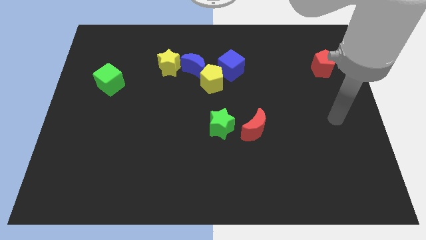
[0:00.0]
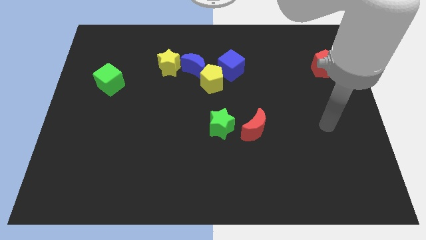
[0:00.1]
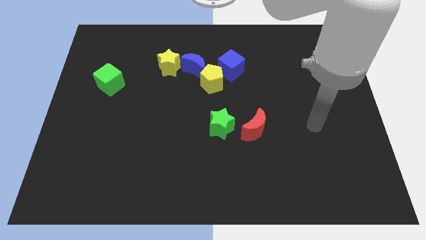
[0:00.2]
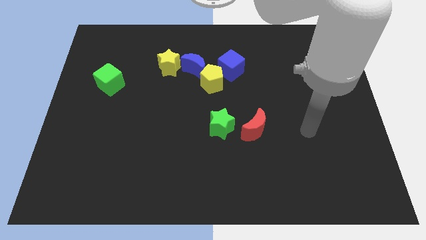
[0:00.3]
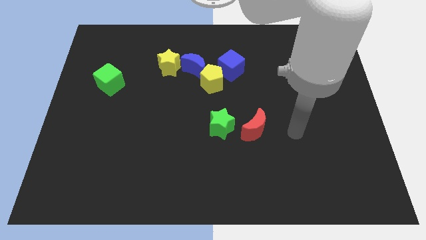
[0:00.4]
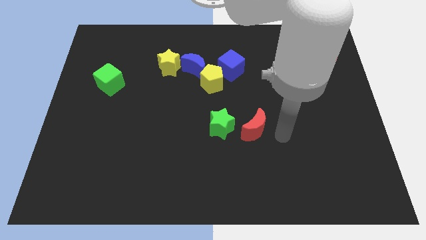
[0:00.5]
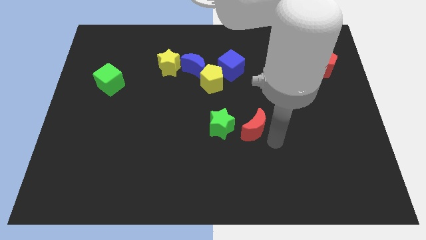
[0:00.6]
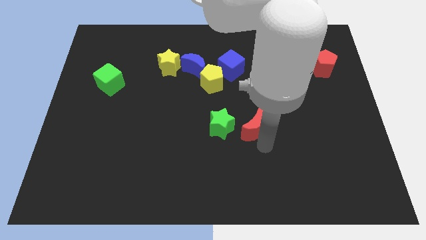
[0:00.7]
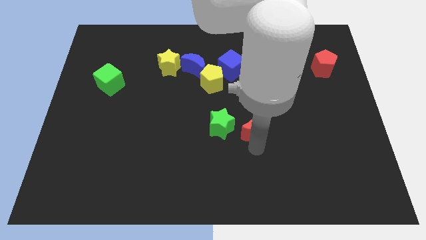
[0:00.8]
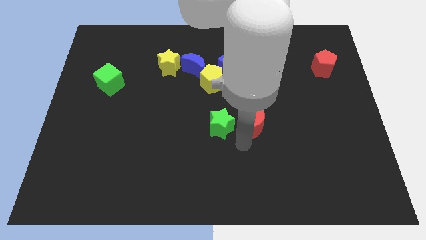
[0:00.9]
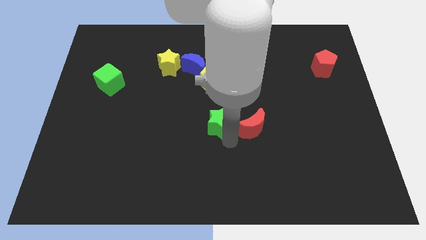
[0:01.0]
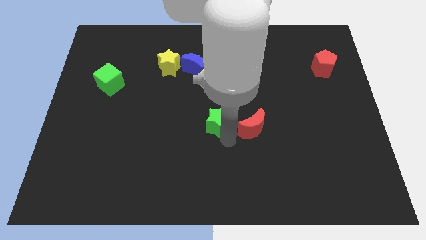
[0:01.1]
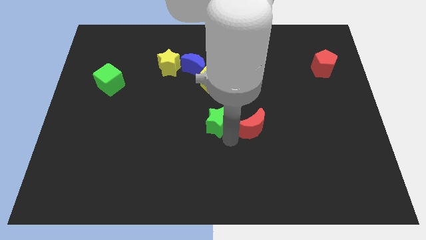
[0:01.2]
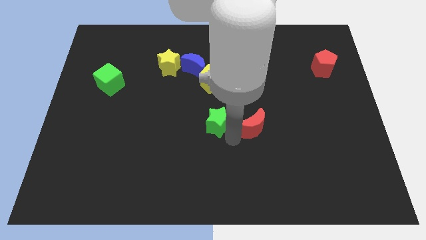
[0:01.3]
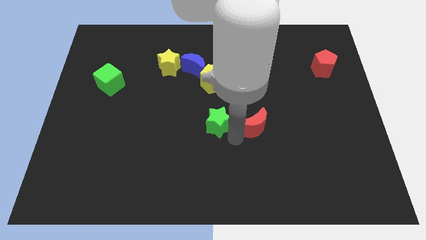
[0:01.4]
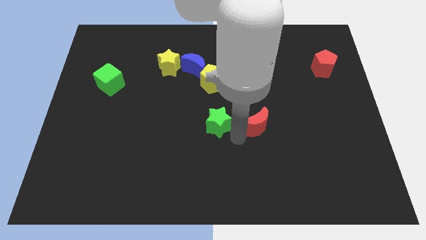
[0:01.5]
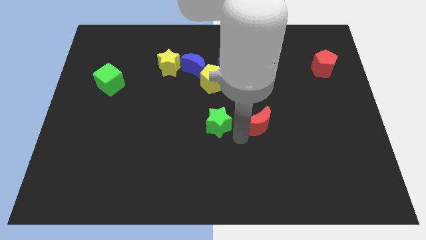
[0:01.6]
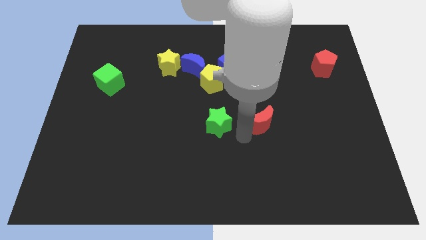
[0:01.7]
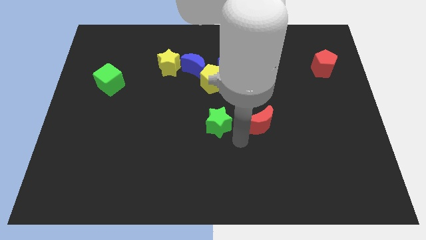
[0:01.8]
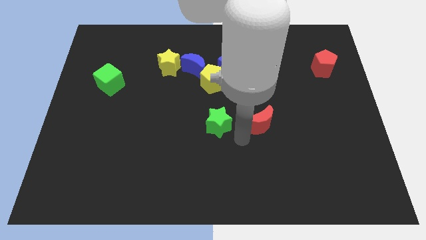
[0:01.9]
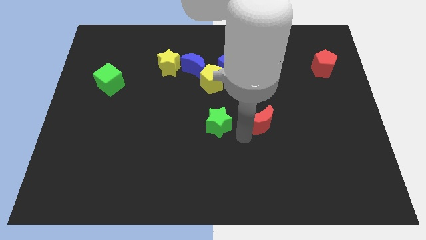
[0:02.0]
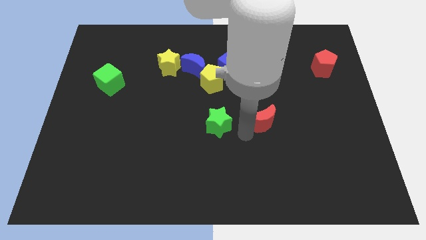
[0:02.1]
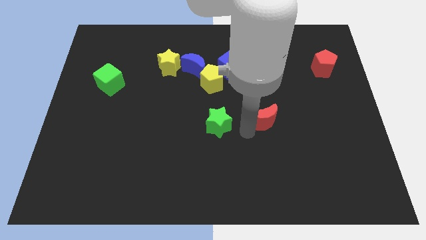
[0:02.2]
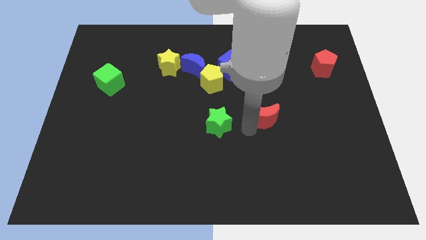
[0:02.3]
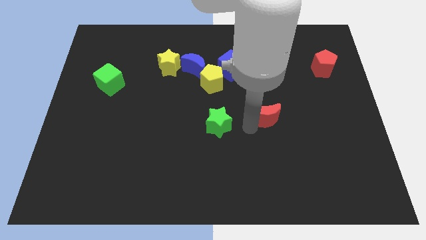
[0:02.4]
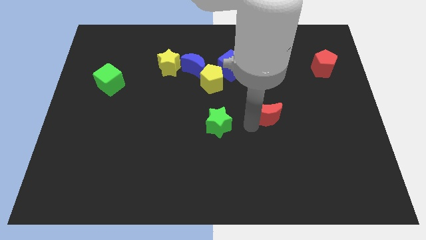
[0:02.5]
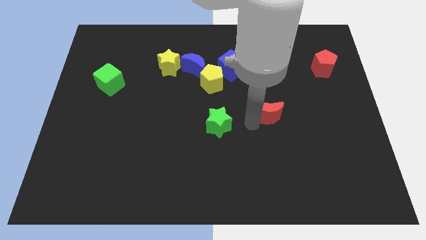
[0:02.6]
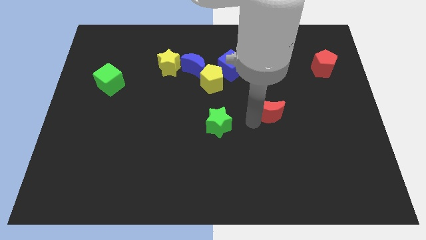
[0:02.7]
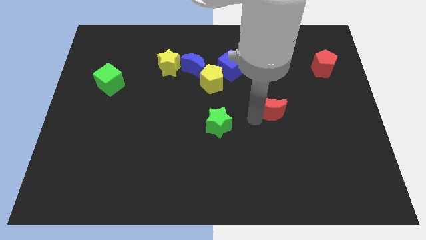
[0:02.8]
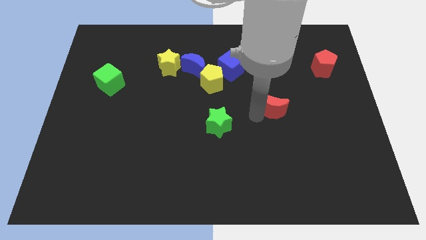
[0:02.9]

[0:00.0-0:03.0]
slightly push the red moon upwards and to the right

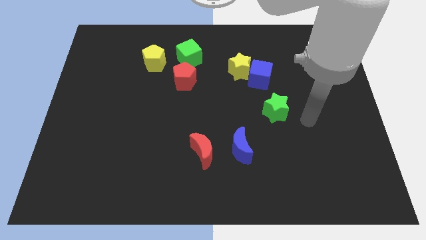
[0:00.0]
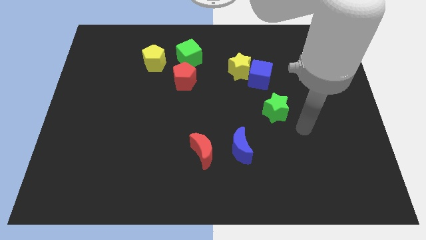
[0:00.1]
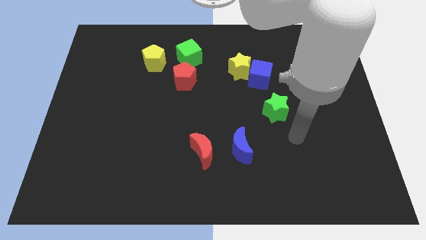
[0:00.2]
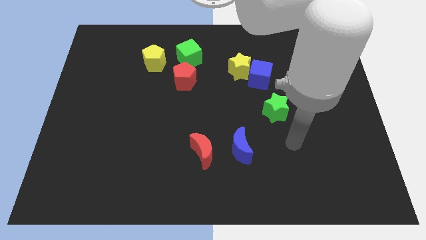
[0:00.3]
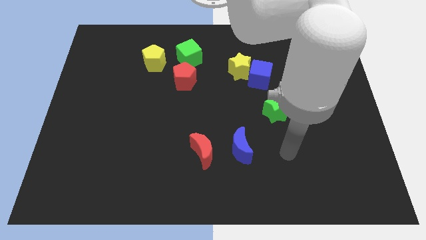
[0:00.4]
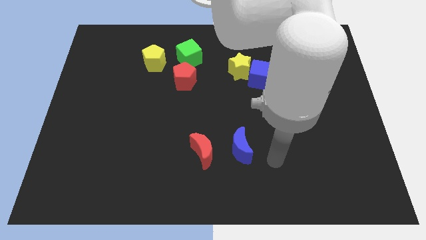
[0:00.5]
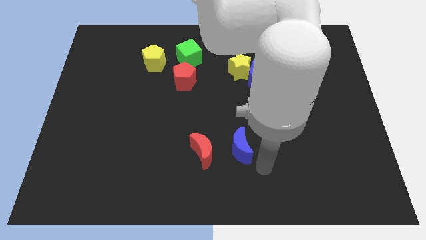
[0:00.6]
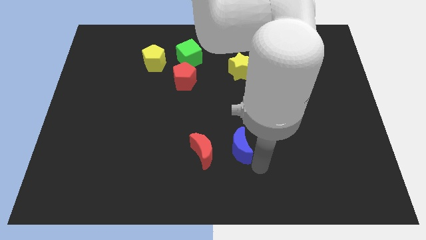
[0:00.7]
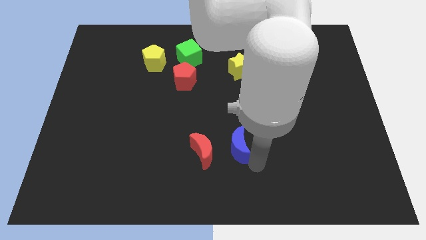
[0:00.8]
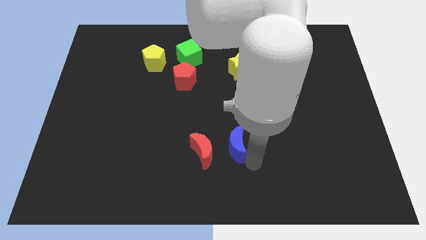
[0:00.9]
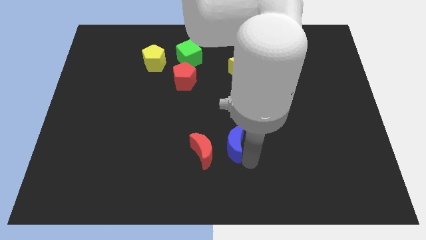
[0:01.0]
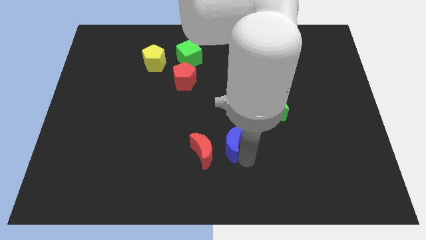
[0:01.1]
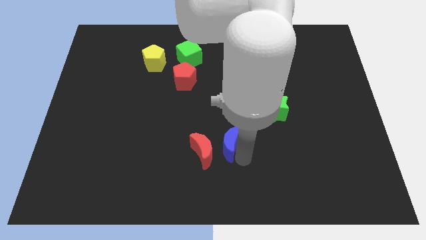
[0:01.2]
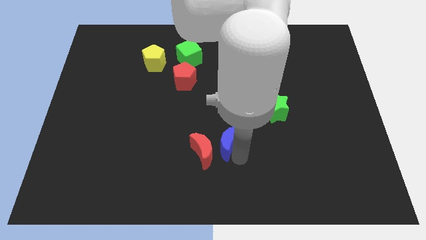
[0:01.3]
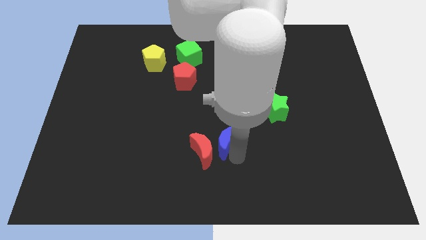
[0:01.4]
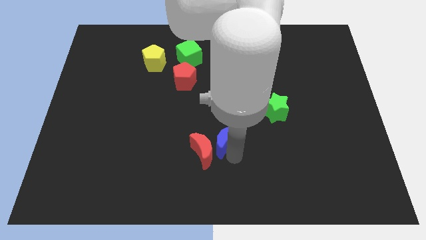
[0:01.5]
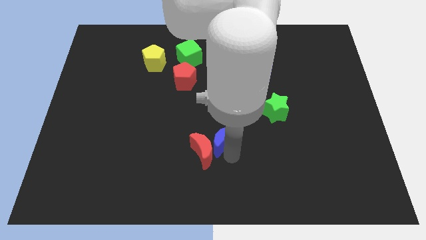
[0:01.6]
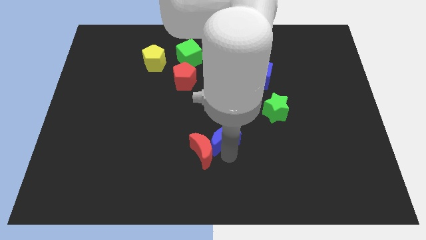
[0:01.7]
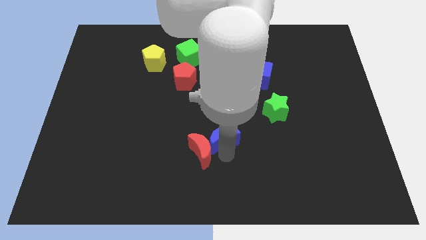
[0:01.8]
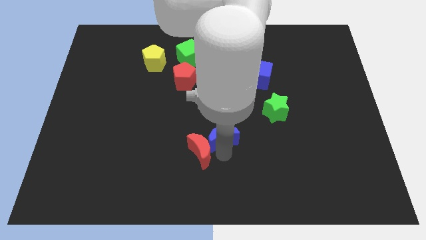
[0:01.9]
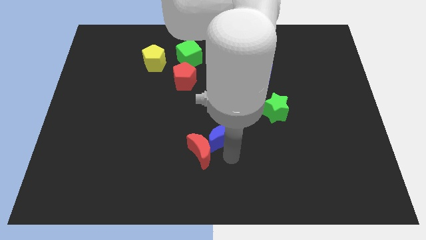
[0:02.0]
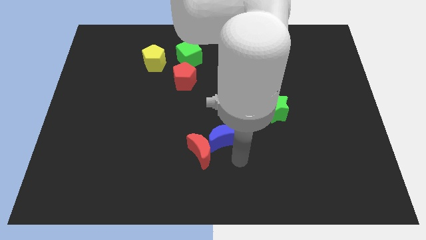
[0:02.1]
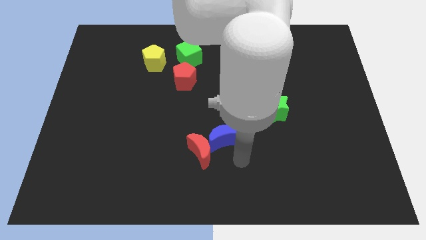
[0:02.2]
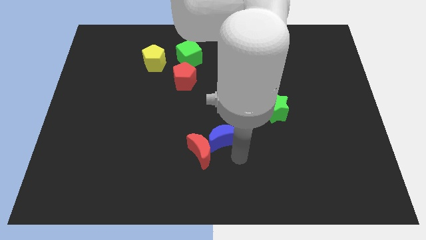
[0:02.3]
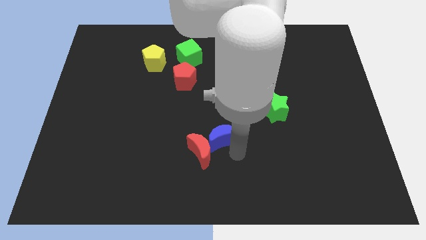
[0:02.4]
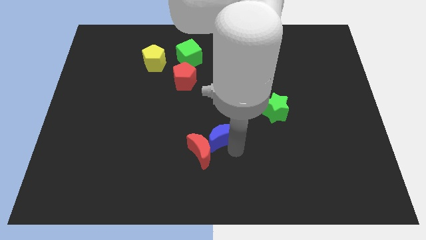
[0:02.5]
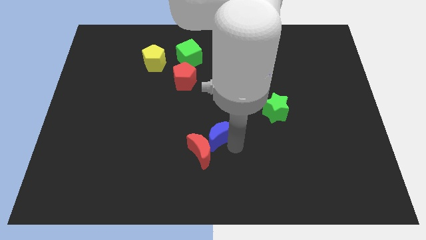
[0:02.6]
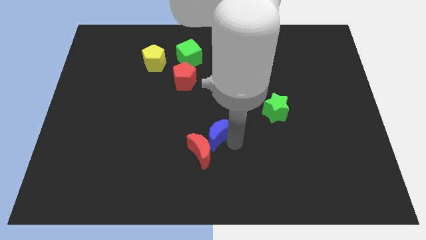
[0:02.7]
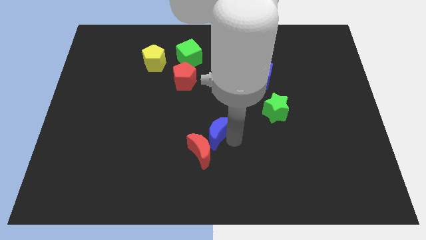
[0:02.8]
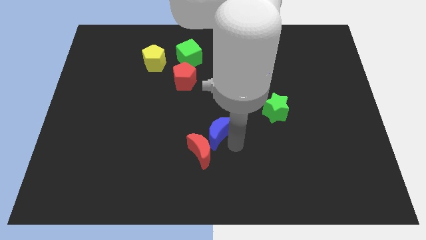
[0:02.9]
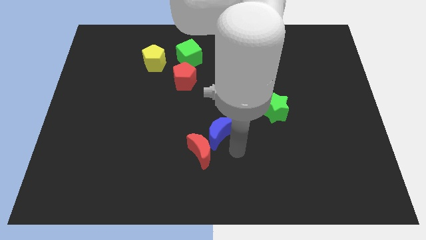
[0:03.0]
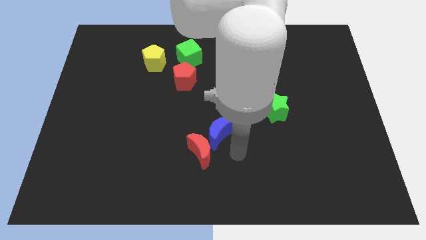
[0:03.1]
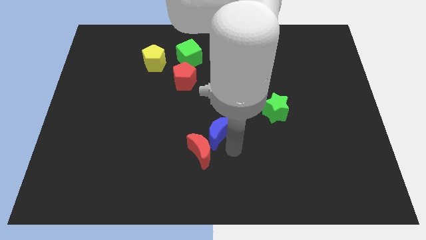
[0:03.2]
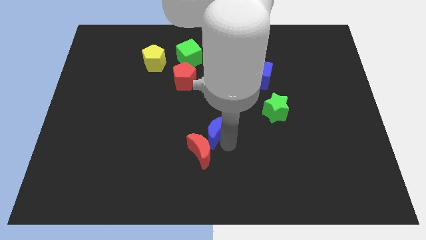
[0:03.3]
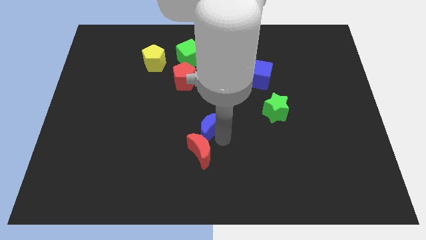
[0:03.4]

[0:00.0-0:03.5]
slightly push the blue moon up and to the left

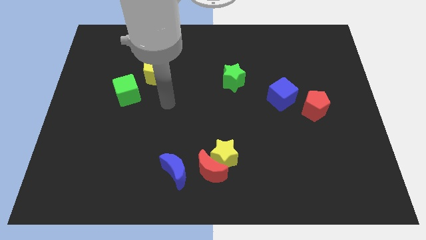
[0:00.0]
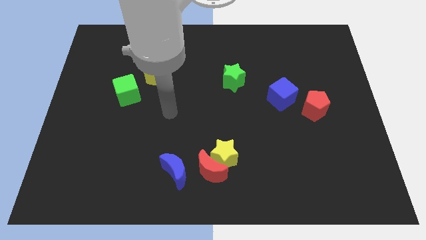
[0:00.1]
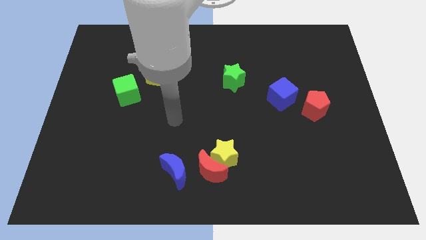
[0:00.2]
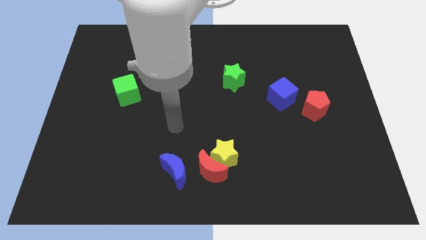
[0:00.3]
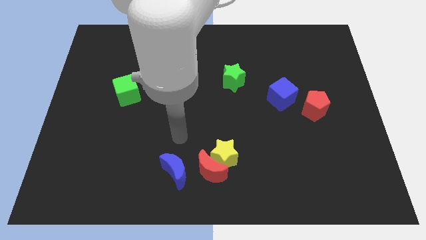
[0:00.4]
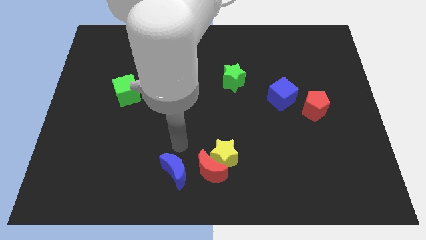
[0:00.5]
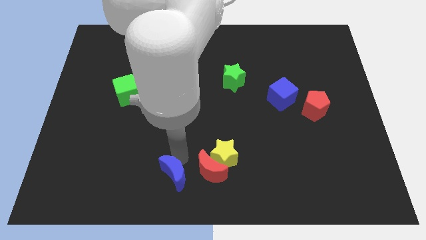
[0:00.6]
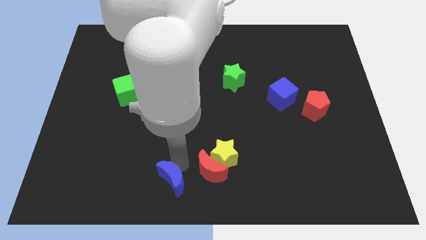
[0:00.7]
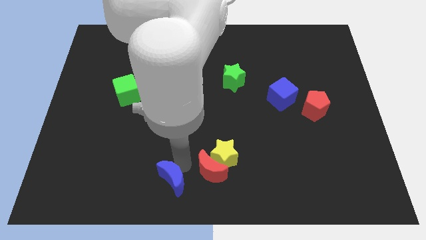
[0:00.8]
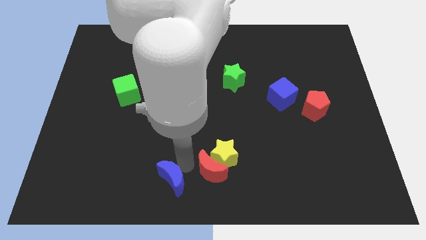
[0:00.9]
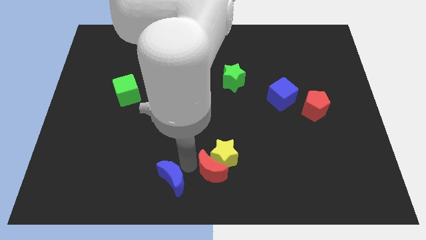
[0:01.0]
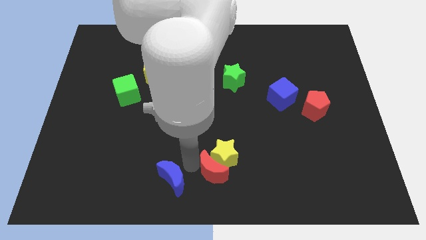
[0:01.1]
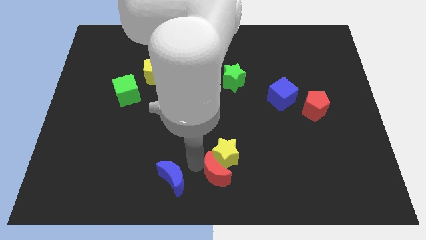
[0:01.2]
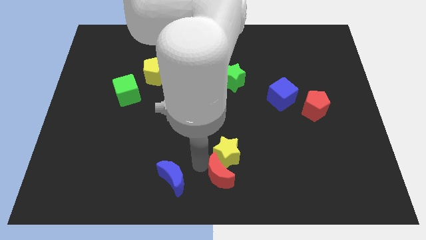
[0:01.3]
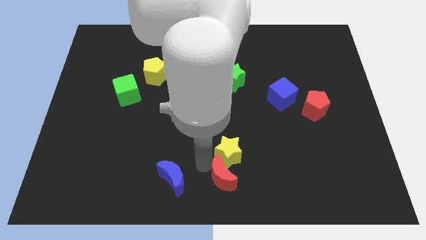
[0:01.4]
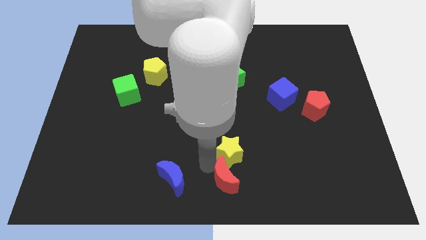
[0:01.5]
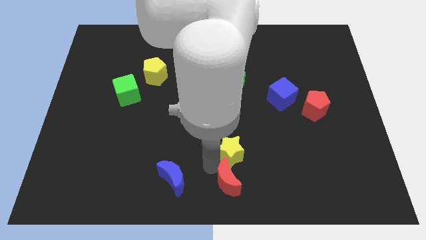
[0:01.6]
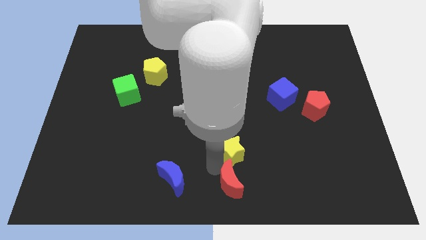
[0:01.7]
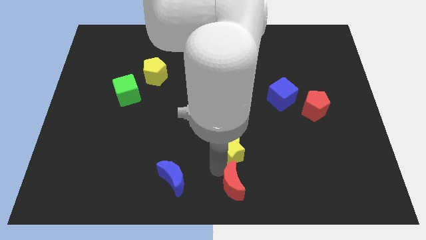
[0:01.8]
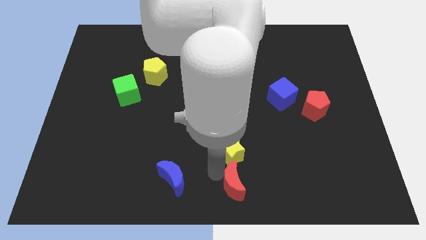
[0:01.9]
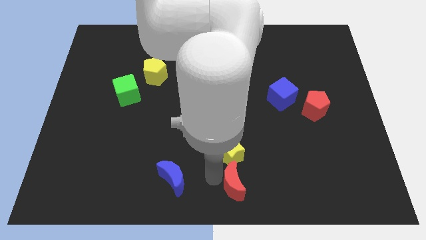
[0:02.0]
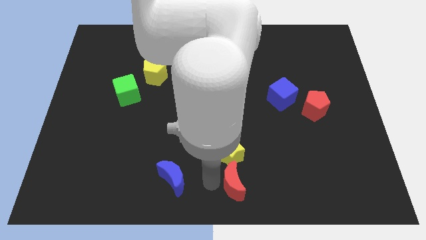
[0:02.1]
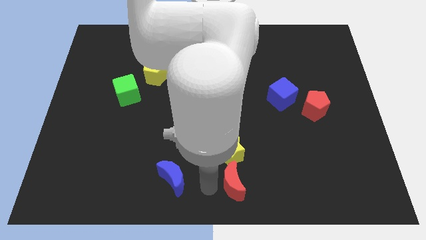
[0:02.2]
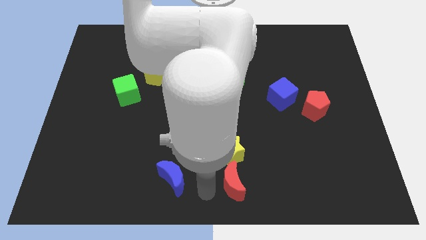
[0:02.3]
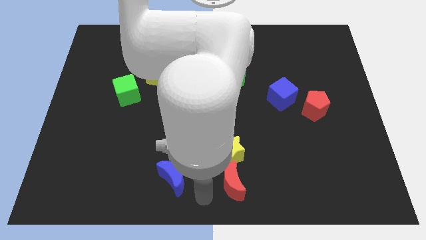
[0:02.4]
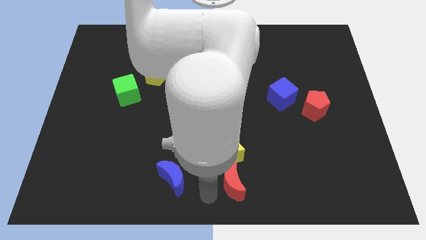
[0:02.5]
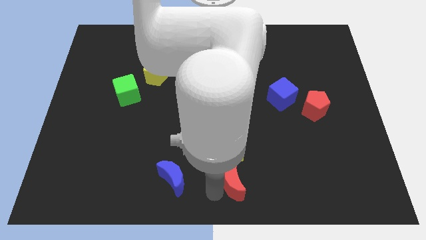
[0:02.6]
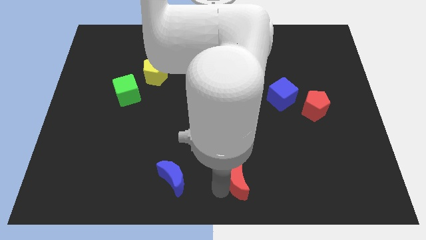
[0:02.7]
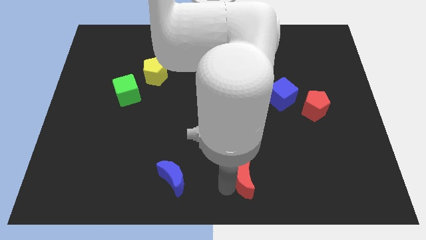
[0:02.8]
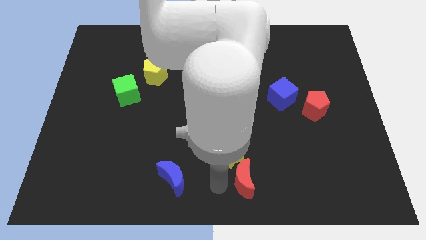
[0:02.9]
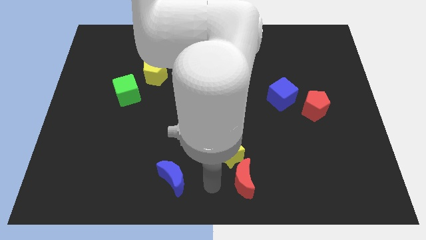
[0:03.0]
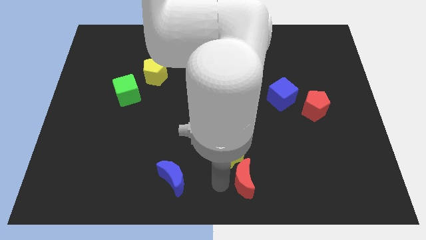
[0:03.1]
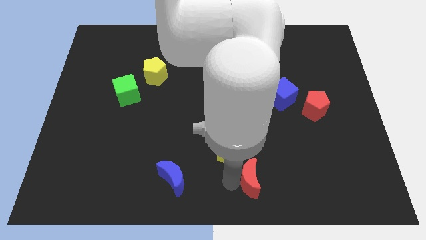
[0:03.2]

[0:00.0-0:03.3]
move the red moon a bit to the right
